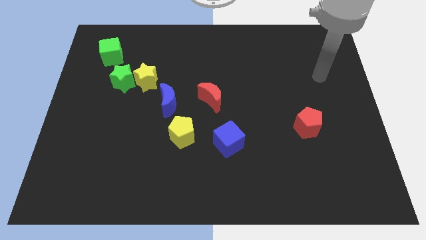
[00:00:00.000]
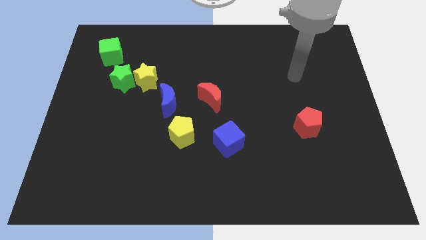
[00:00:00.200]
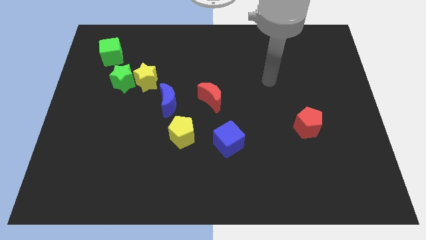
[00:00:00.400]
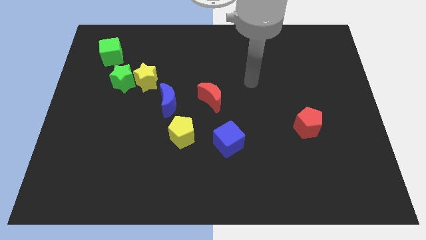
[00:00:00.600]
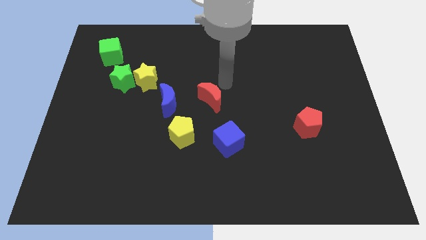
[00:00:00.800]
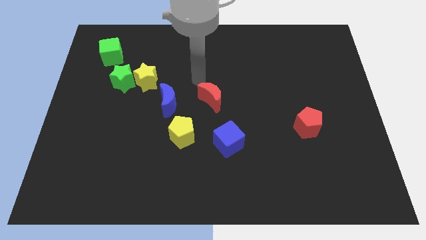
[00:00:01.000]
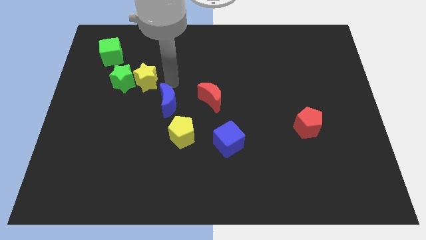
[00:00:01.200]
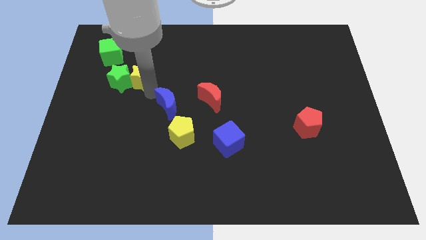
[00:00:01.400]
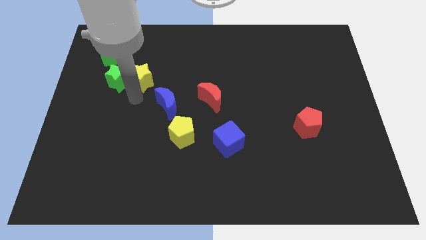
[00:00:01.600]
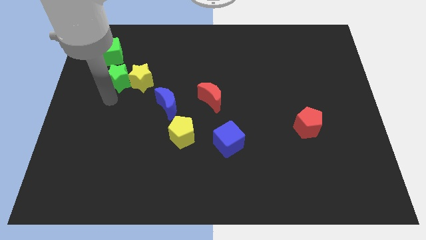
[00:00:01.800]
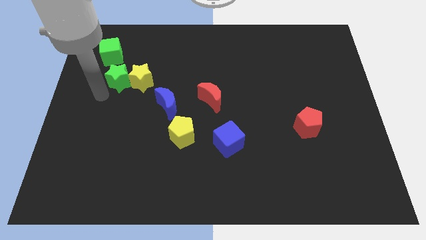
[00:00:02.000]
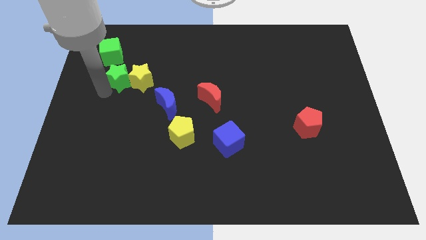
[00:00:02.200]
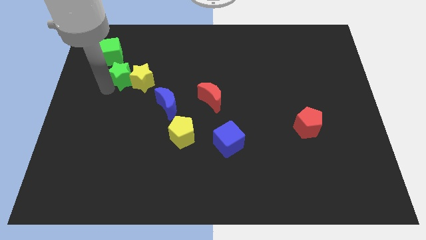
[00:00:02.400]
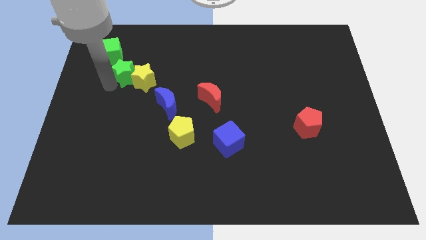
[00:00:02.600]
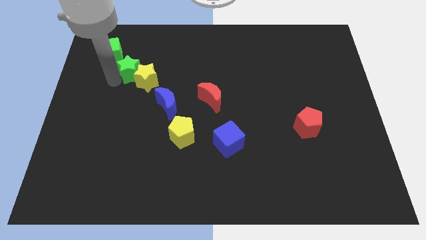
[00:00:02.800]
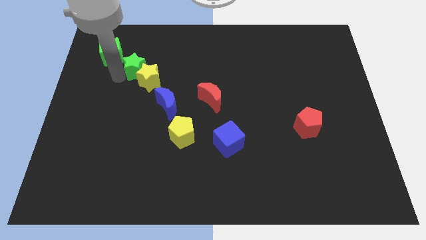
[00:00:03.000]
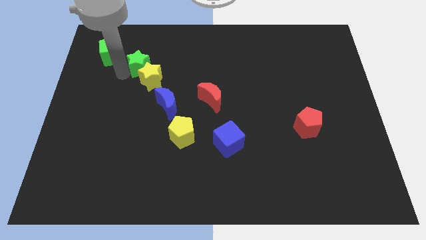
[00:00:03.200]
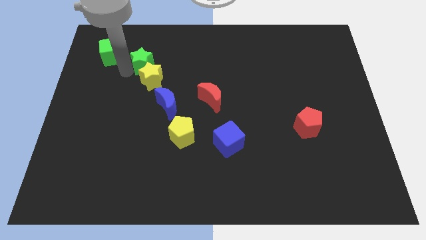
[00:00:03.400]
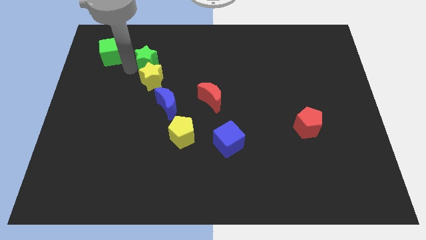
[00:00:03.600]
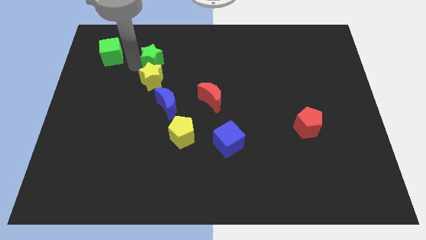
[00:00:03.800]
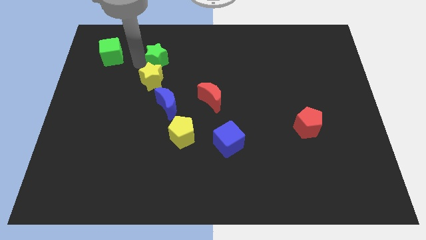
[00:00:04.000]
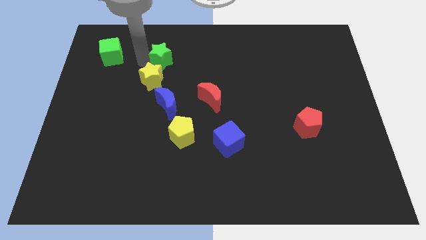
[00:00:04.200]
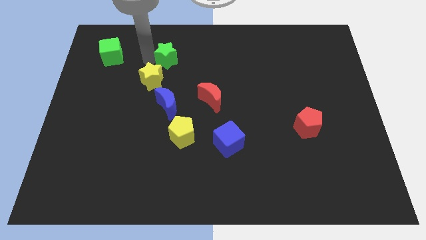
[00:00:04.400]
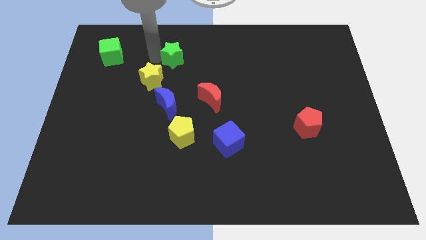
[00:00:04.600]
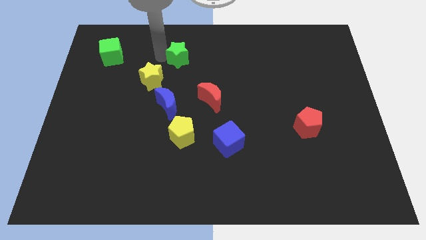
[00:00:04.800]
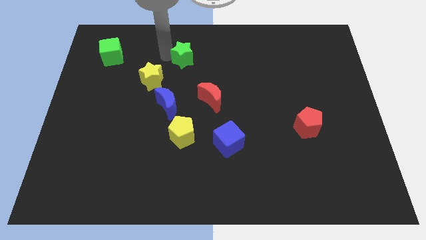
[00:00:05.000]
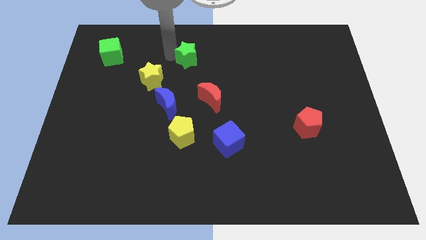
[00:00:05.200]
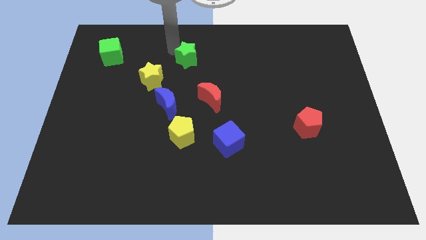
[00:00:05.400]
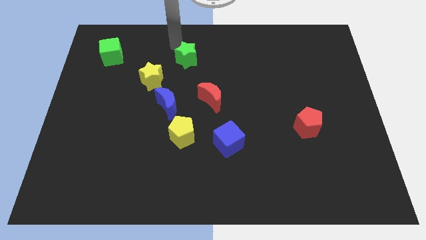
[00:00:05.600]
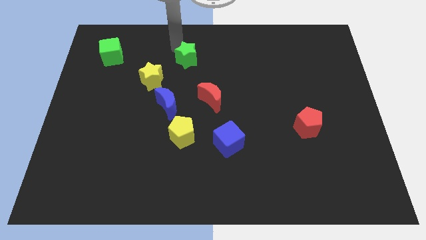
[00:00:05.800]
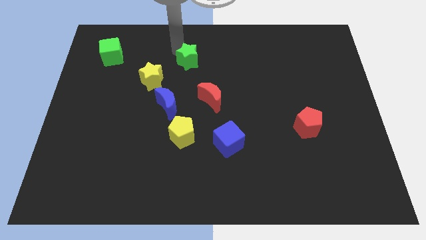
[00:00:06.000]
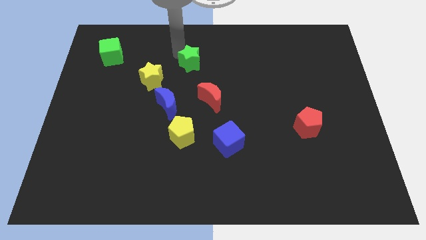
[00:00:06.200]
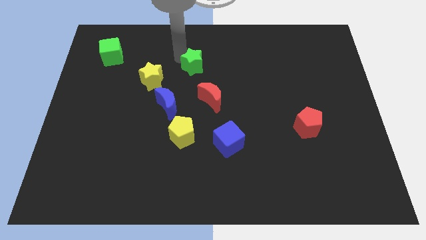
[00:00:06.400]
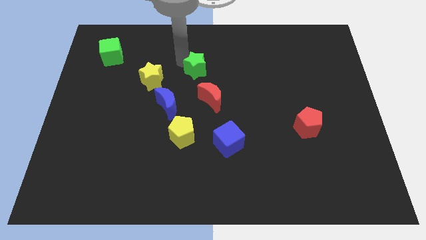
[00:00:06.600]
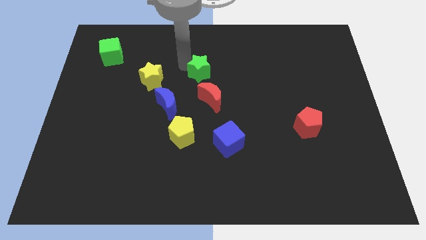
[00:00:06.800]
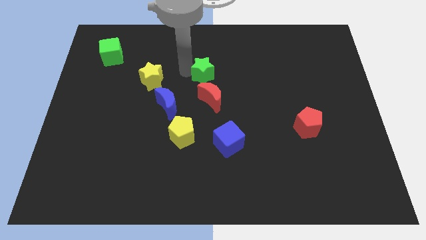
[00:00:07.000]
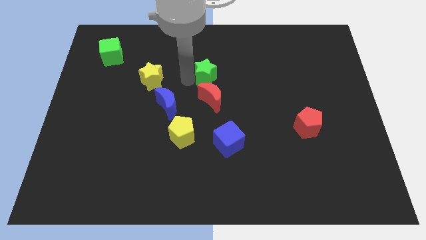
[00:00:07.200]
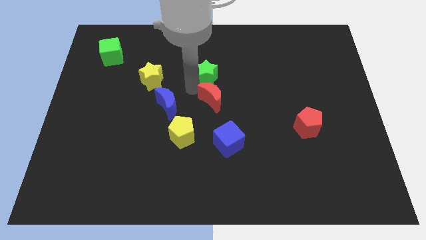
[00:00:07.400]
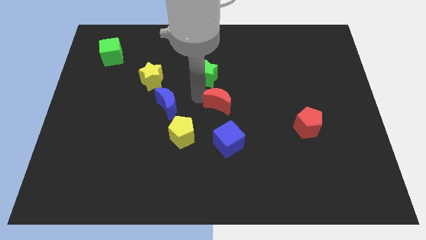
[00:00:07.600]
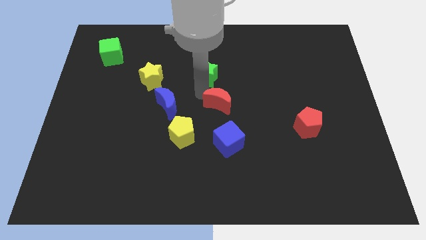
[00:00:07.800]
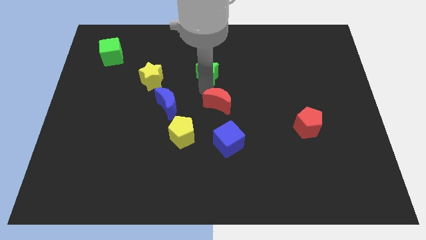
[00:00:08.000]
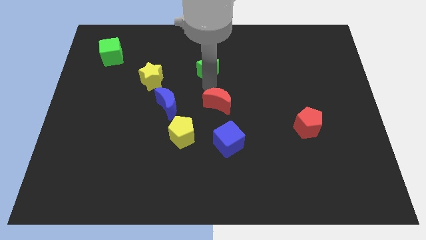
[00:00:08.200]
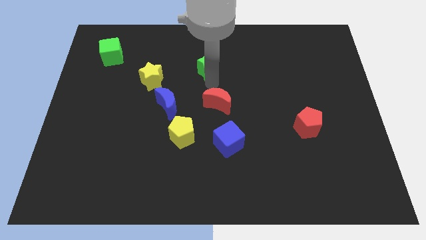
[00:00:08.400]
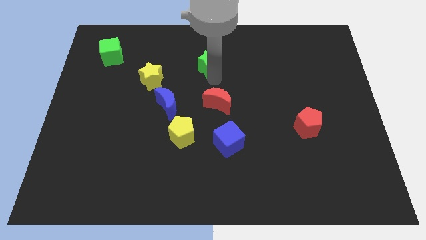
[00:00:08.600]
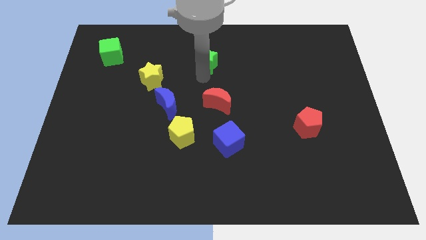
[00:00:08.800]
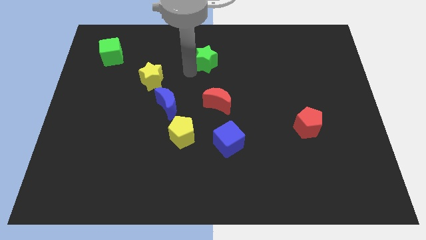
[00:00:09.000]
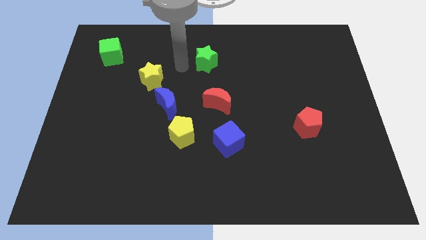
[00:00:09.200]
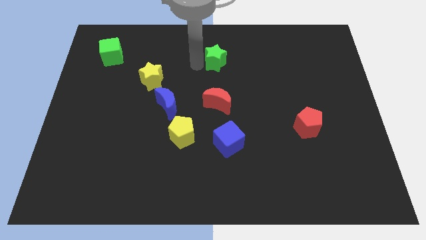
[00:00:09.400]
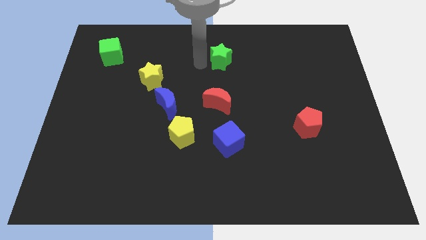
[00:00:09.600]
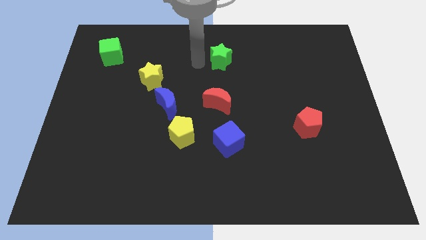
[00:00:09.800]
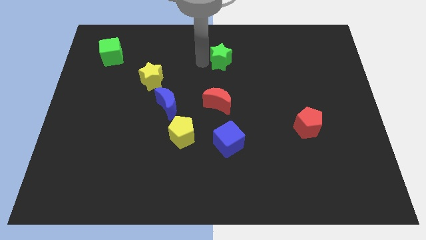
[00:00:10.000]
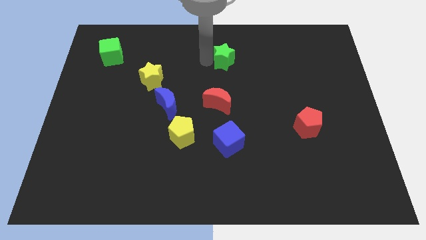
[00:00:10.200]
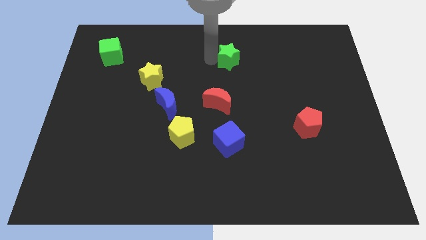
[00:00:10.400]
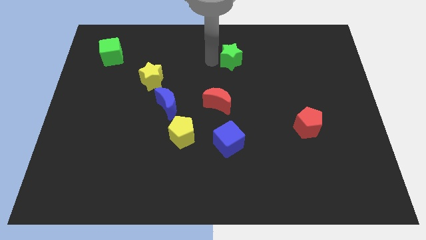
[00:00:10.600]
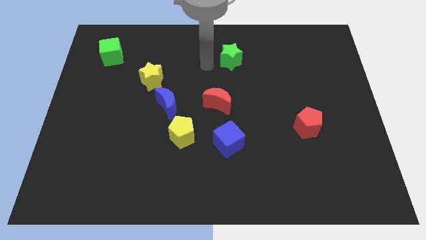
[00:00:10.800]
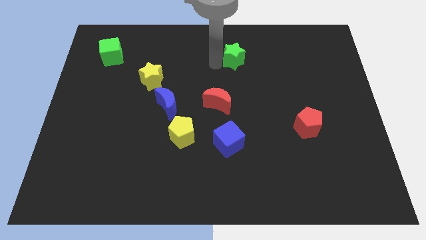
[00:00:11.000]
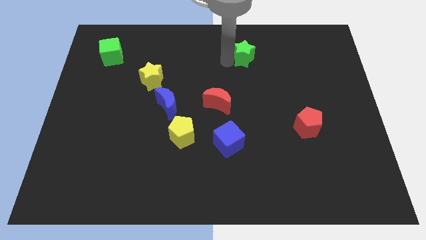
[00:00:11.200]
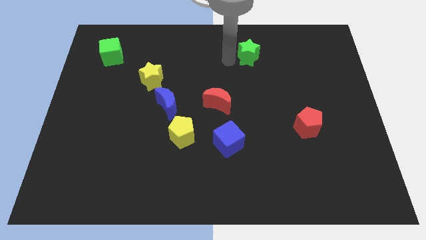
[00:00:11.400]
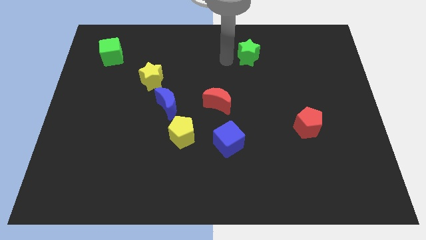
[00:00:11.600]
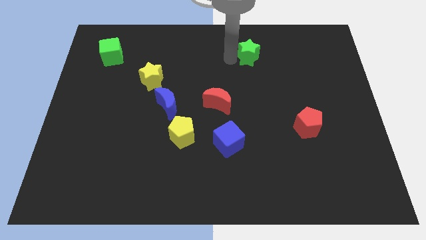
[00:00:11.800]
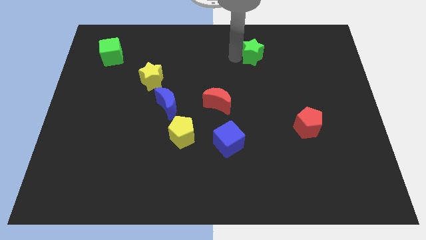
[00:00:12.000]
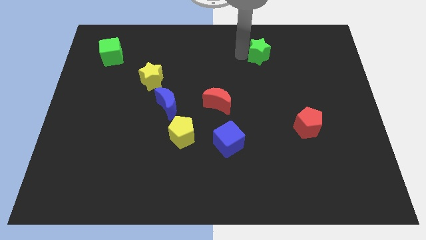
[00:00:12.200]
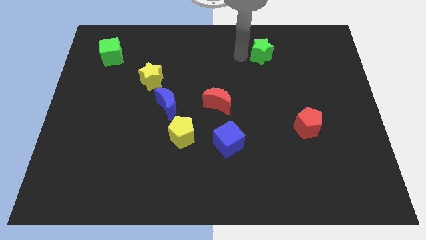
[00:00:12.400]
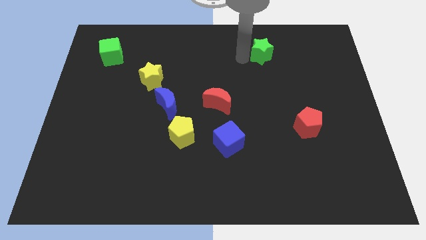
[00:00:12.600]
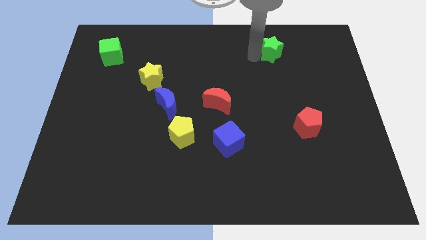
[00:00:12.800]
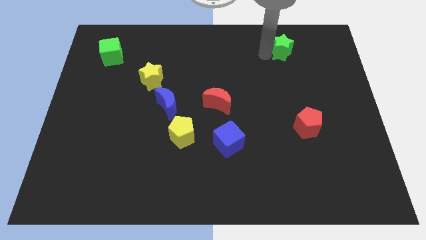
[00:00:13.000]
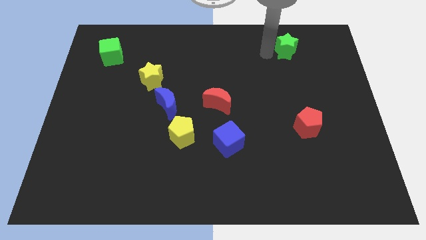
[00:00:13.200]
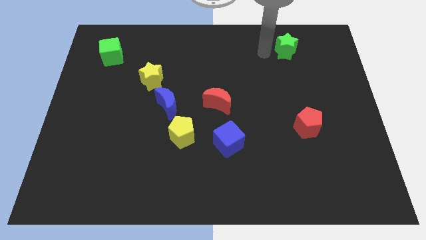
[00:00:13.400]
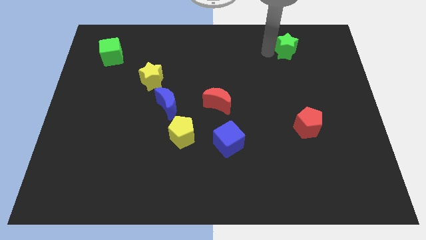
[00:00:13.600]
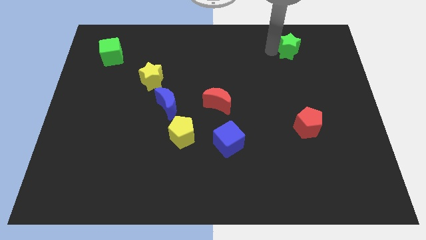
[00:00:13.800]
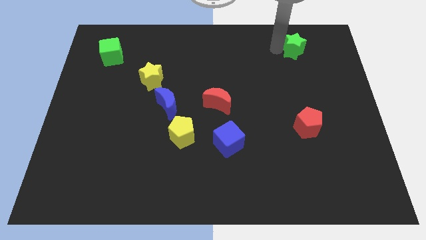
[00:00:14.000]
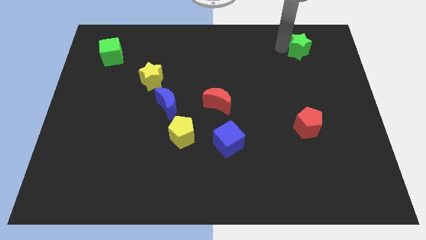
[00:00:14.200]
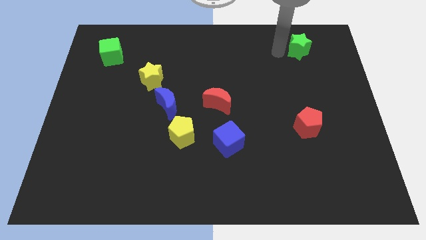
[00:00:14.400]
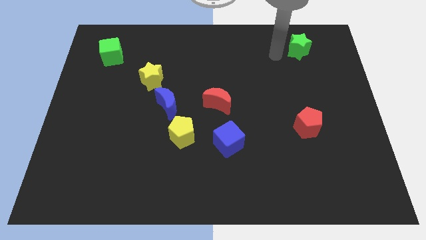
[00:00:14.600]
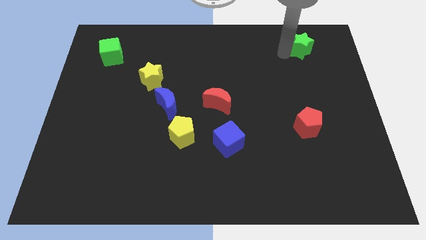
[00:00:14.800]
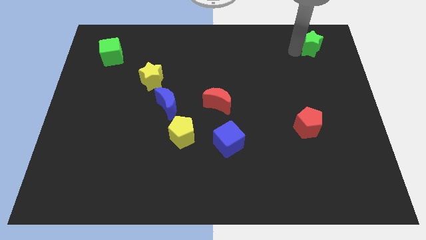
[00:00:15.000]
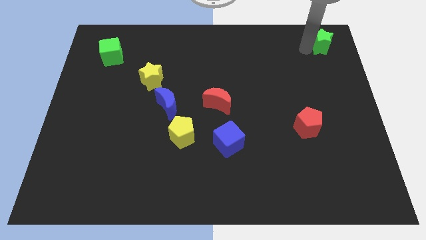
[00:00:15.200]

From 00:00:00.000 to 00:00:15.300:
put the green star to the top right corner

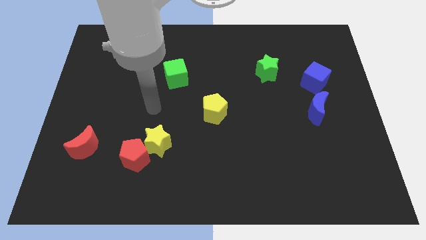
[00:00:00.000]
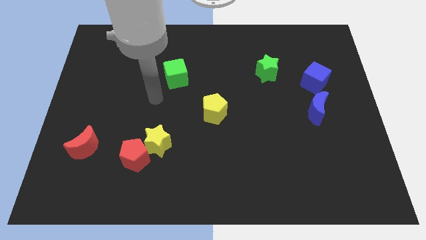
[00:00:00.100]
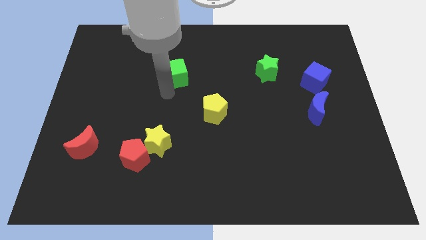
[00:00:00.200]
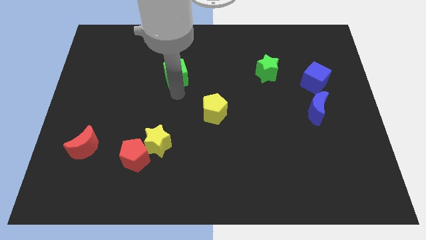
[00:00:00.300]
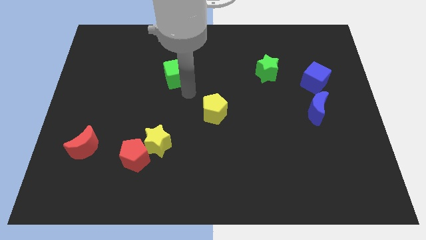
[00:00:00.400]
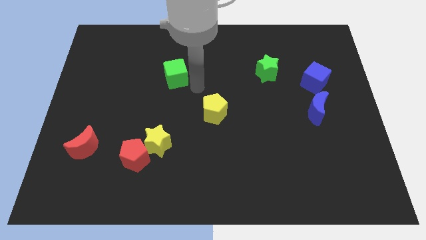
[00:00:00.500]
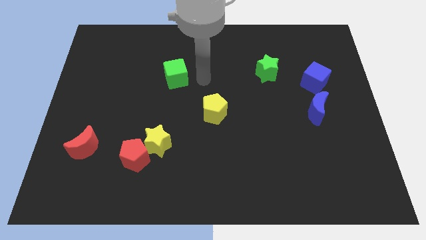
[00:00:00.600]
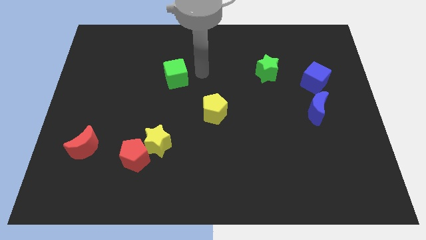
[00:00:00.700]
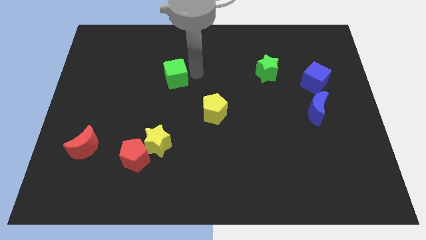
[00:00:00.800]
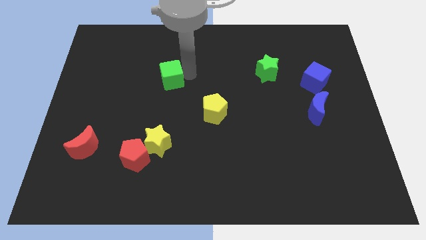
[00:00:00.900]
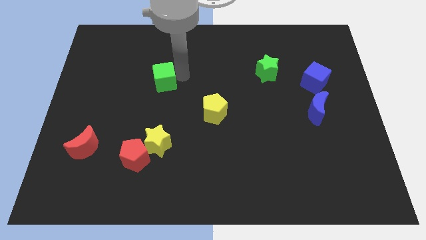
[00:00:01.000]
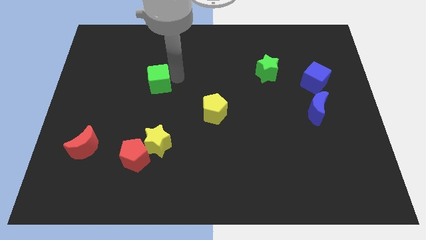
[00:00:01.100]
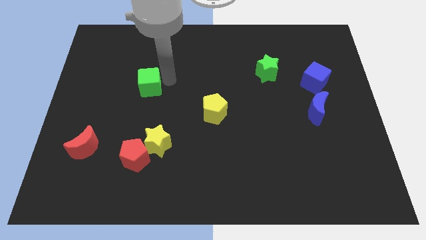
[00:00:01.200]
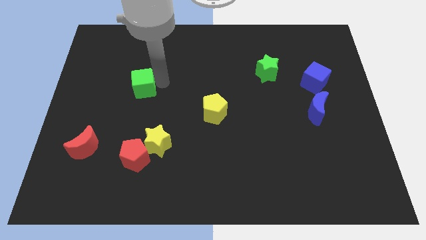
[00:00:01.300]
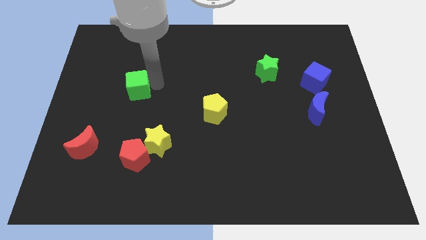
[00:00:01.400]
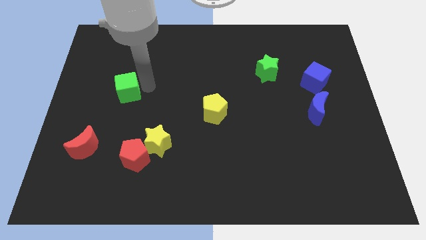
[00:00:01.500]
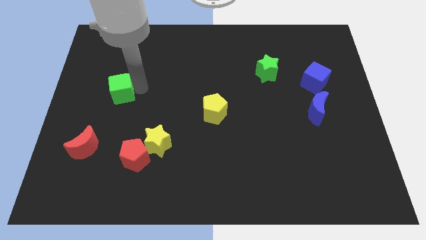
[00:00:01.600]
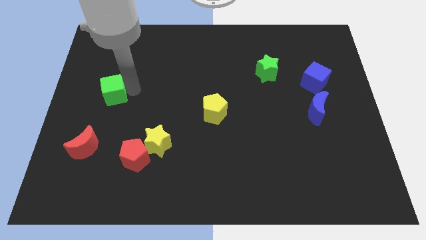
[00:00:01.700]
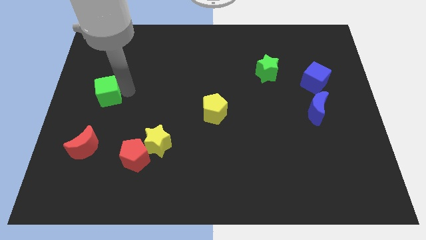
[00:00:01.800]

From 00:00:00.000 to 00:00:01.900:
push the green cube to the left side of the board
